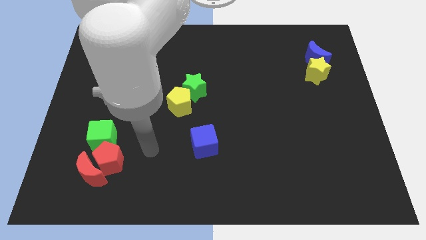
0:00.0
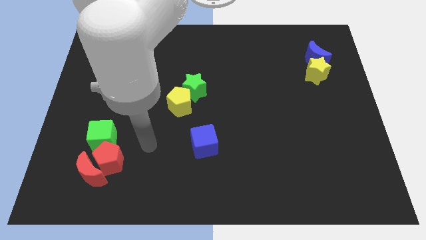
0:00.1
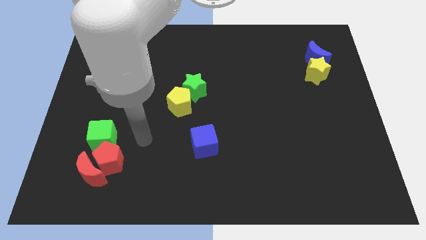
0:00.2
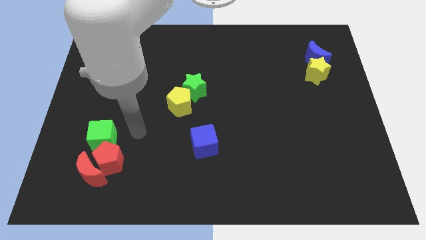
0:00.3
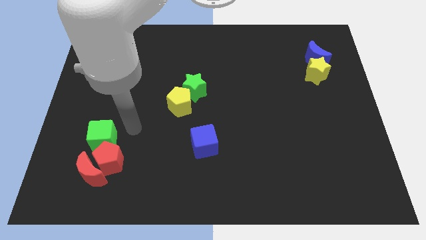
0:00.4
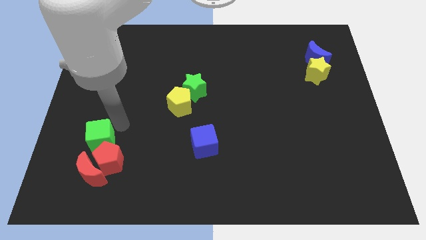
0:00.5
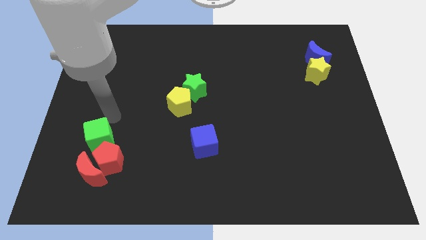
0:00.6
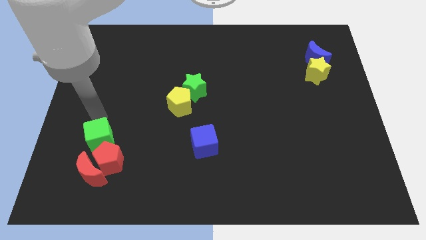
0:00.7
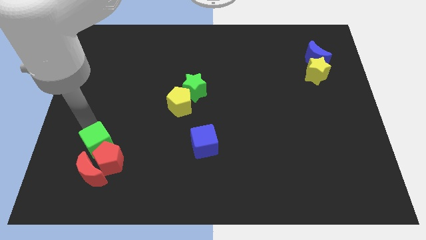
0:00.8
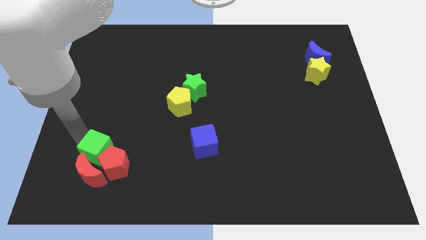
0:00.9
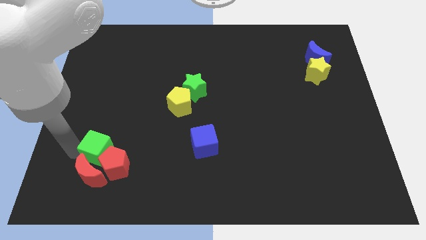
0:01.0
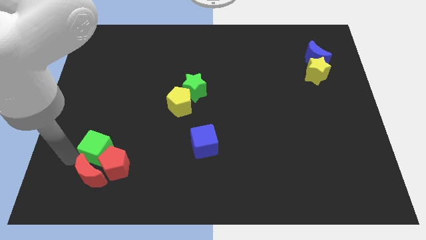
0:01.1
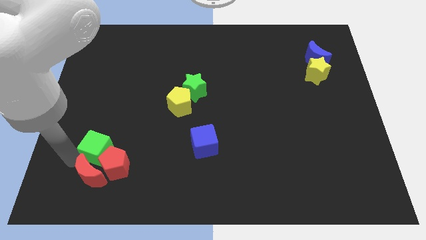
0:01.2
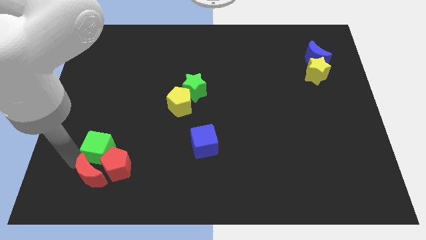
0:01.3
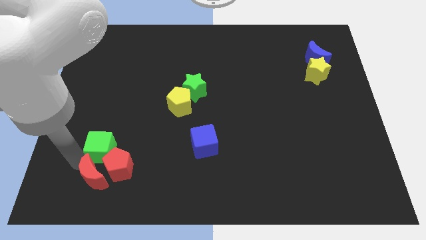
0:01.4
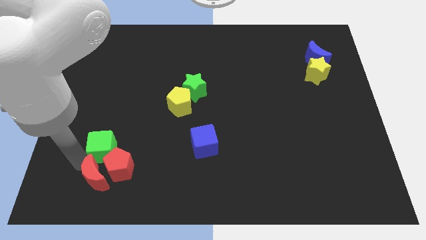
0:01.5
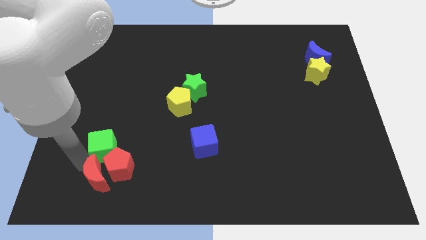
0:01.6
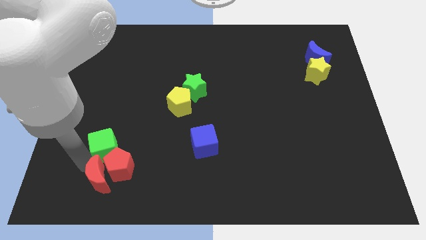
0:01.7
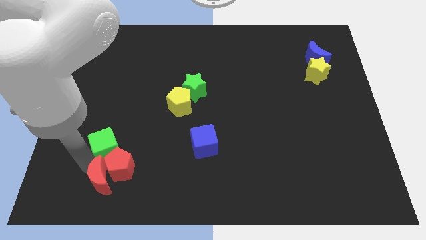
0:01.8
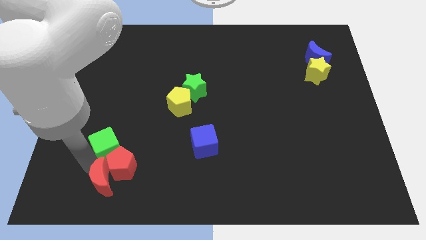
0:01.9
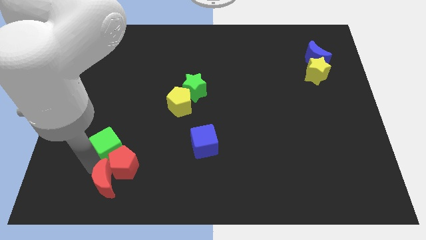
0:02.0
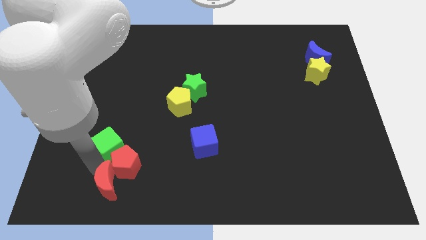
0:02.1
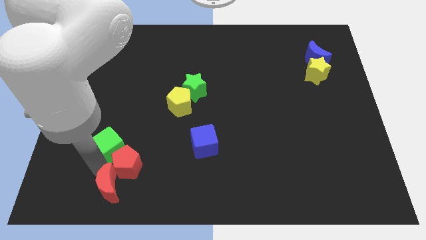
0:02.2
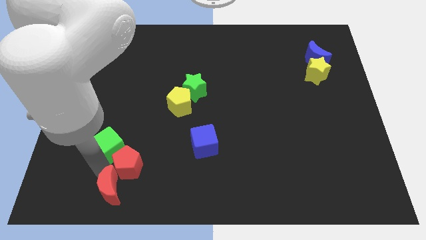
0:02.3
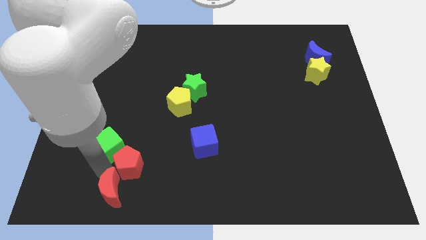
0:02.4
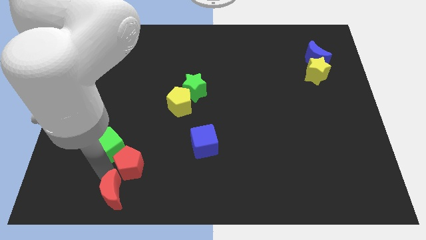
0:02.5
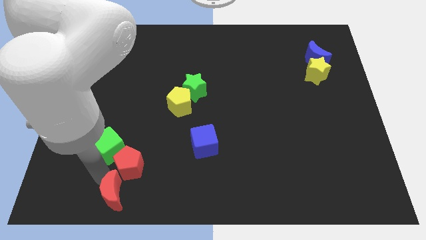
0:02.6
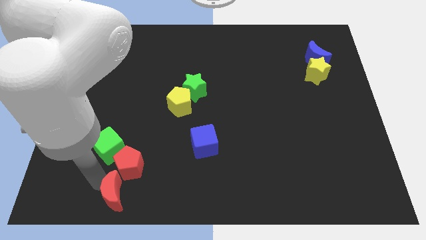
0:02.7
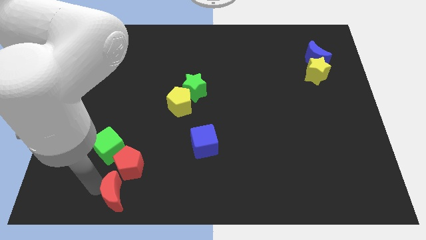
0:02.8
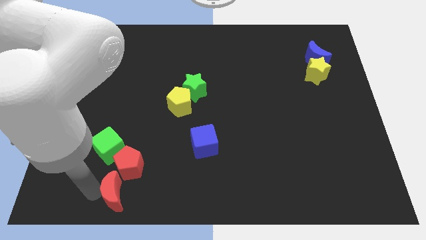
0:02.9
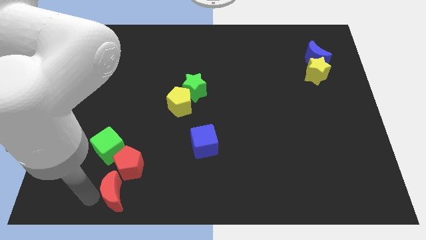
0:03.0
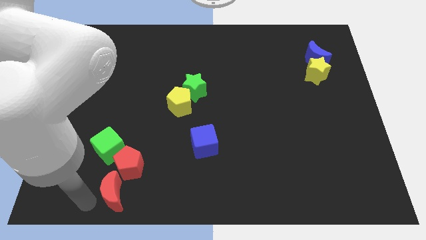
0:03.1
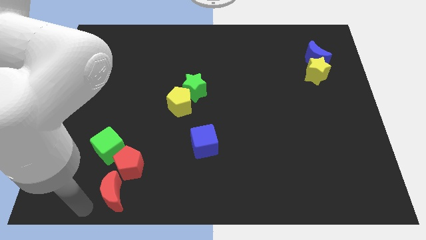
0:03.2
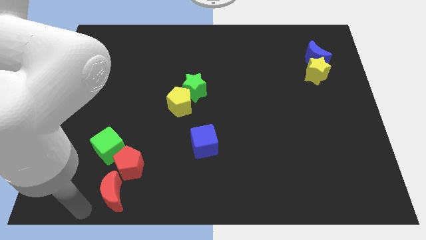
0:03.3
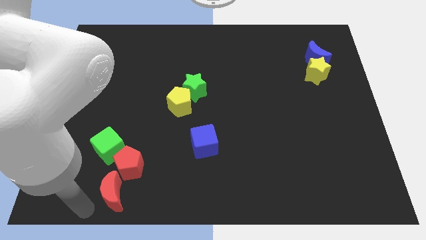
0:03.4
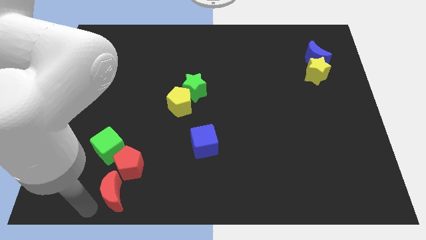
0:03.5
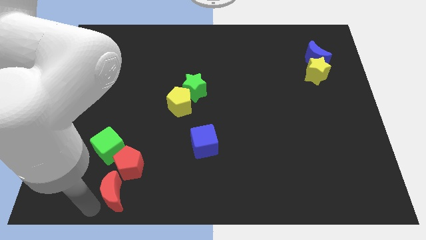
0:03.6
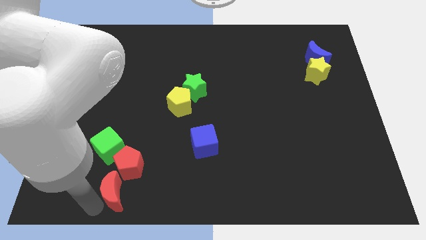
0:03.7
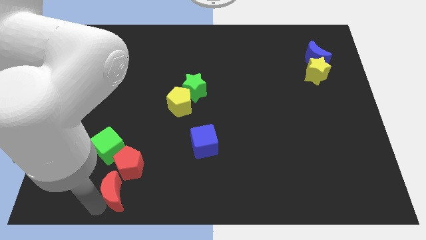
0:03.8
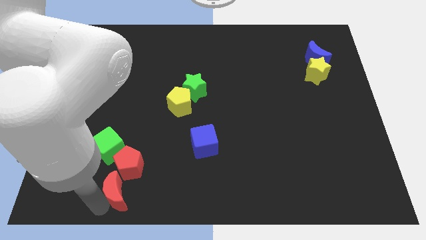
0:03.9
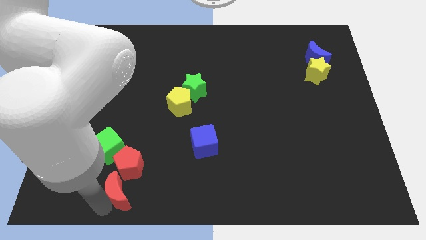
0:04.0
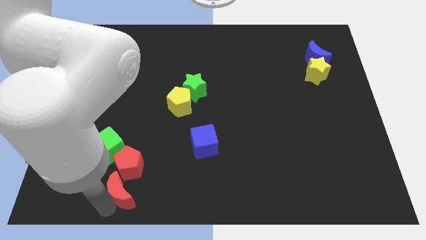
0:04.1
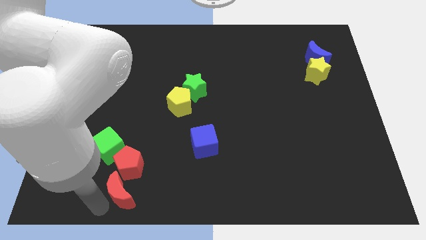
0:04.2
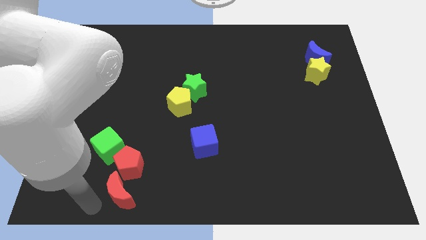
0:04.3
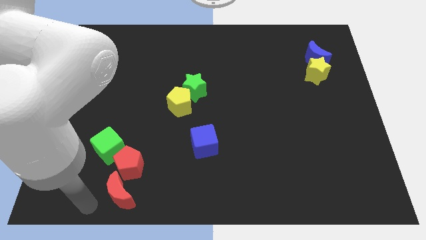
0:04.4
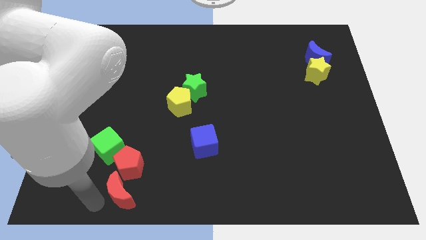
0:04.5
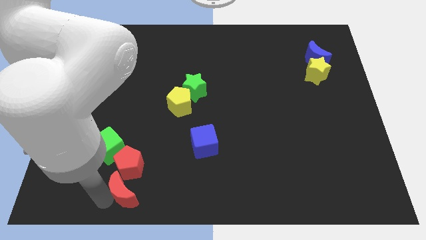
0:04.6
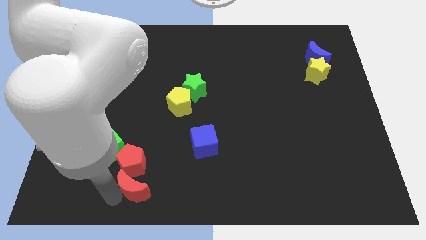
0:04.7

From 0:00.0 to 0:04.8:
slightly slide the red moon right

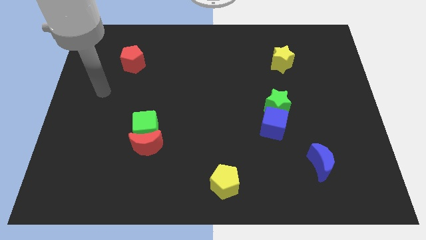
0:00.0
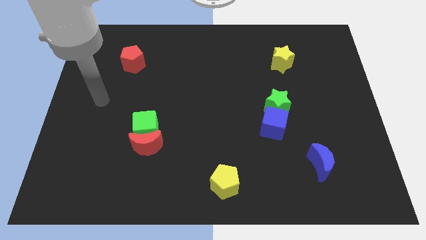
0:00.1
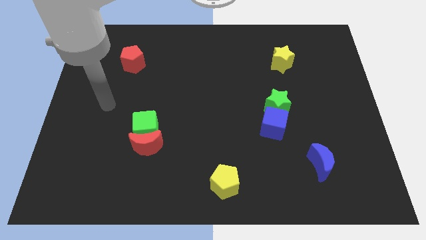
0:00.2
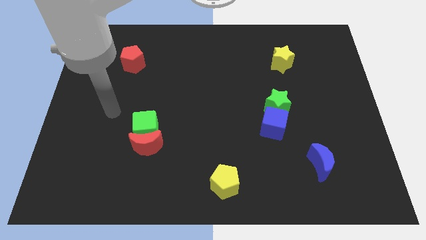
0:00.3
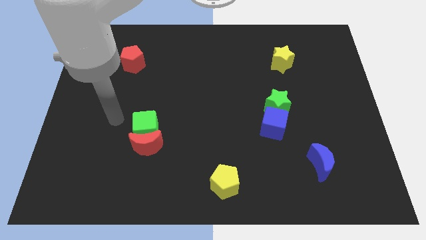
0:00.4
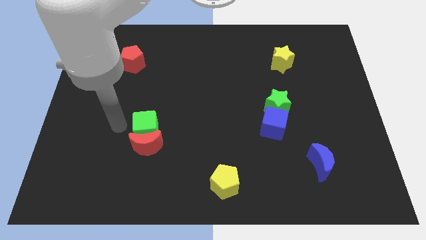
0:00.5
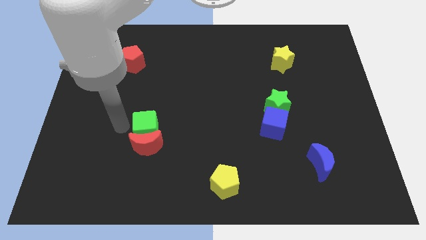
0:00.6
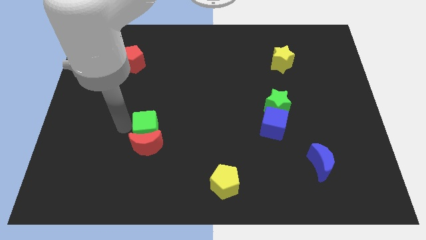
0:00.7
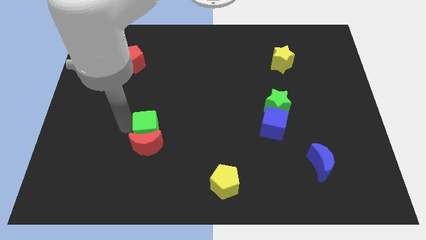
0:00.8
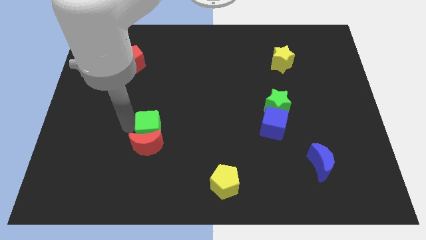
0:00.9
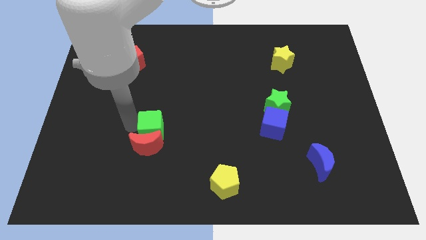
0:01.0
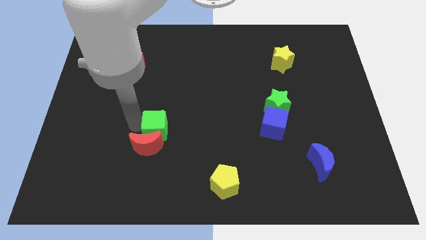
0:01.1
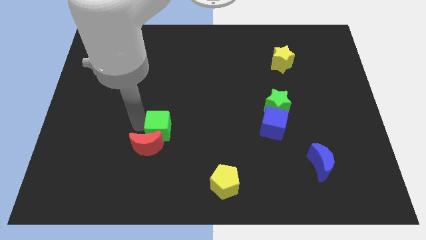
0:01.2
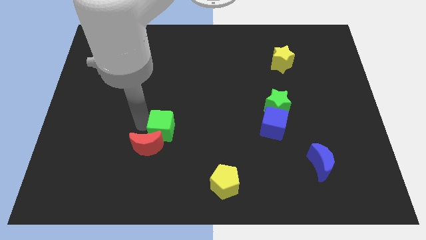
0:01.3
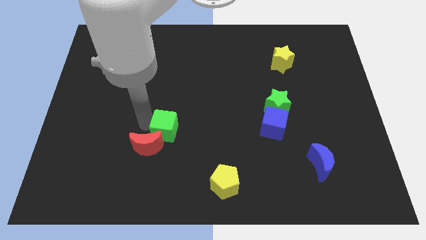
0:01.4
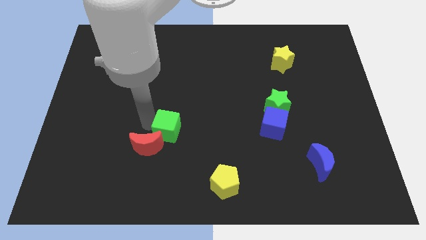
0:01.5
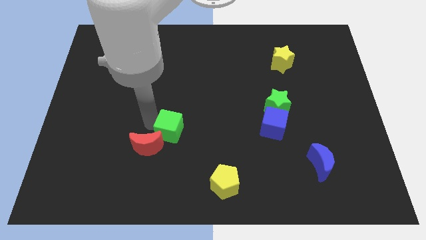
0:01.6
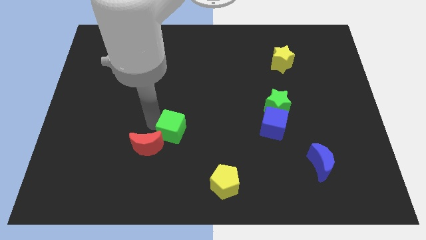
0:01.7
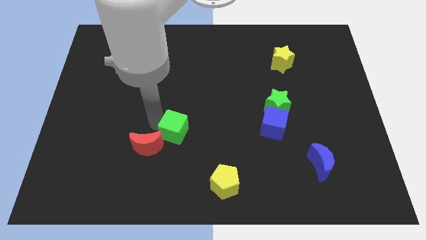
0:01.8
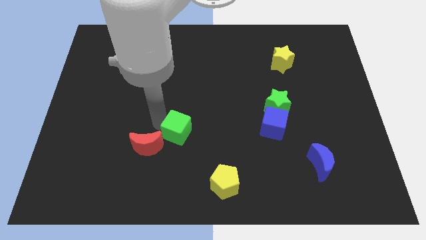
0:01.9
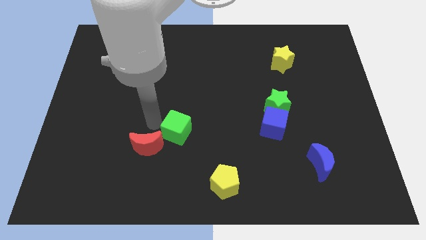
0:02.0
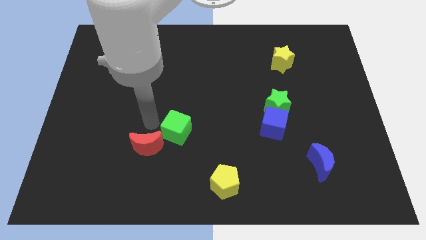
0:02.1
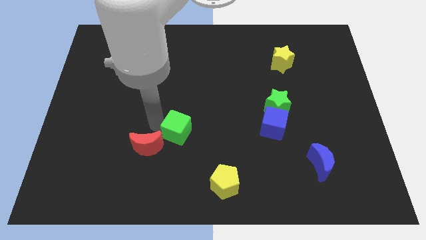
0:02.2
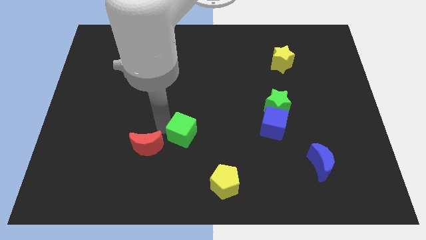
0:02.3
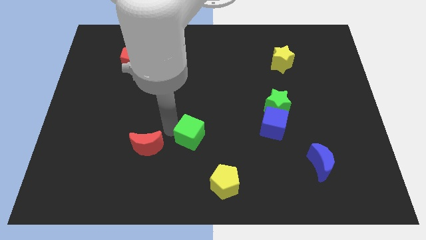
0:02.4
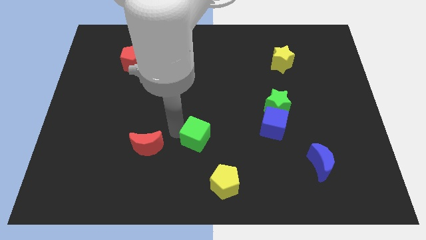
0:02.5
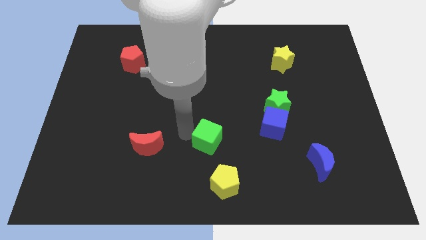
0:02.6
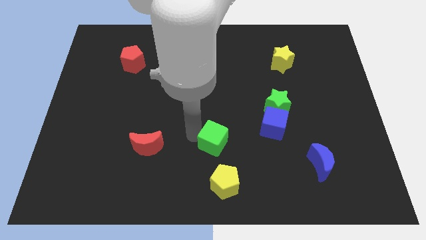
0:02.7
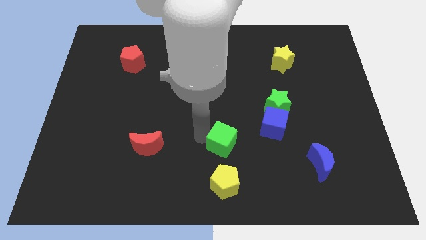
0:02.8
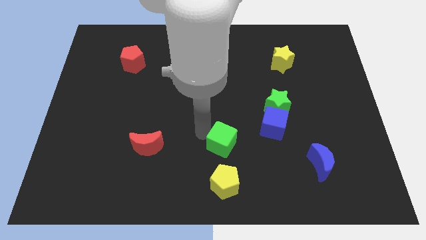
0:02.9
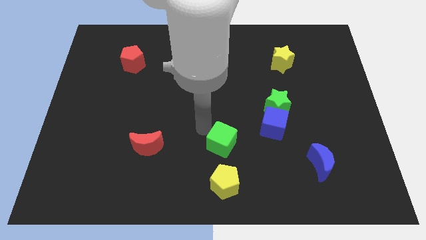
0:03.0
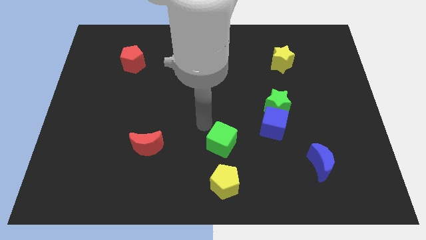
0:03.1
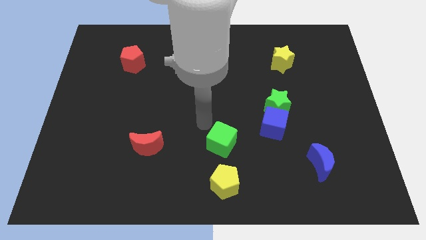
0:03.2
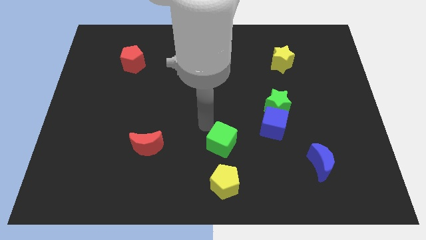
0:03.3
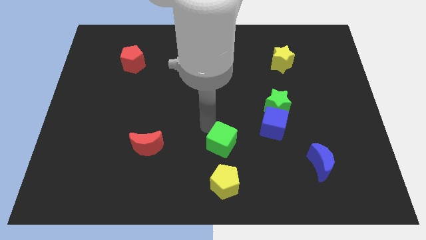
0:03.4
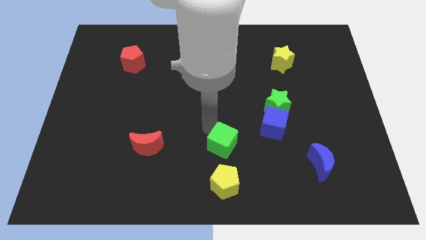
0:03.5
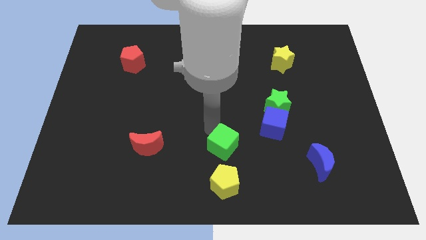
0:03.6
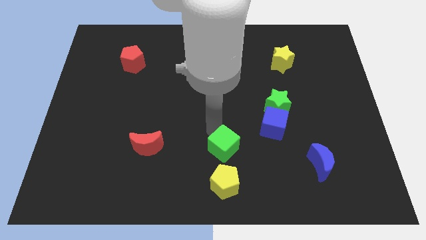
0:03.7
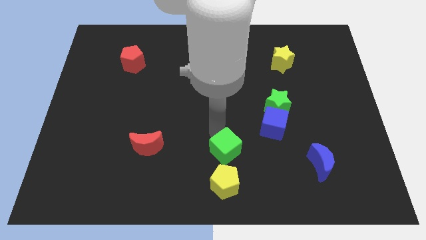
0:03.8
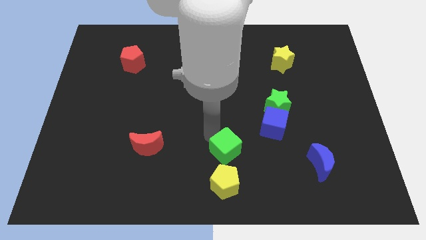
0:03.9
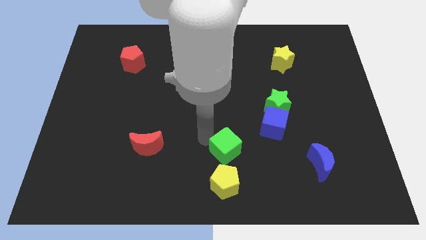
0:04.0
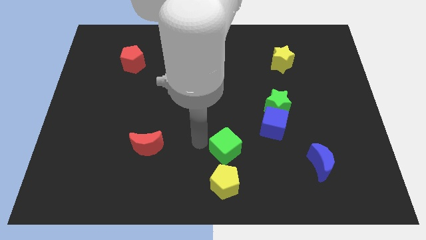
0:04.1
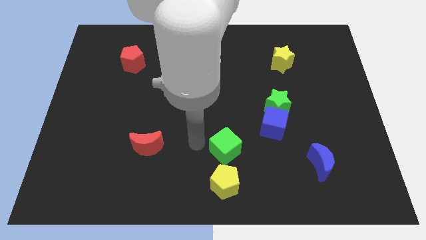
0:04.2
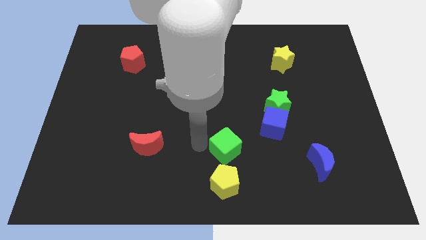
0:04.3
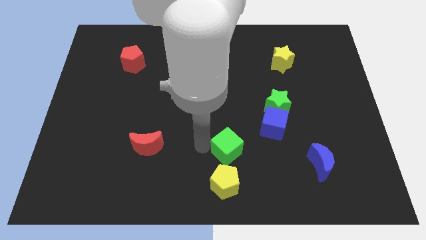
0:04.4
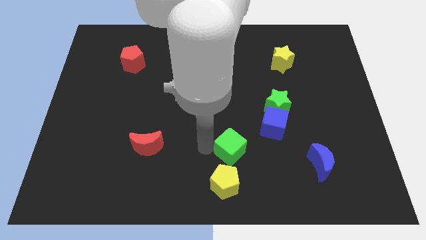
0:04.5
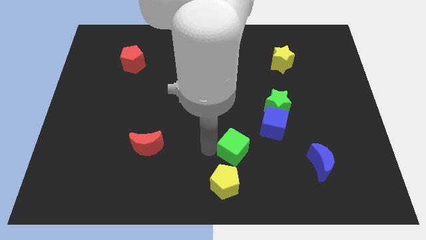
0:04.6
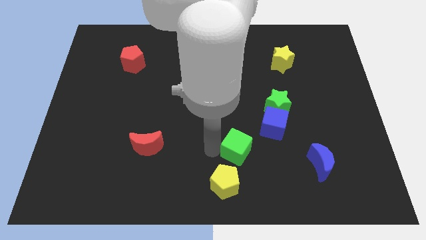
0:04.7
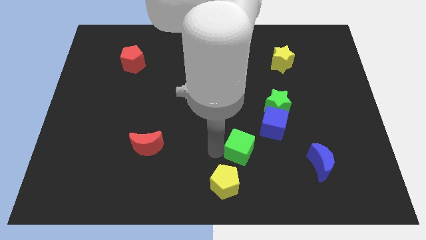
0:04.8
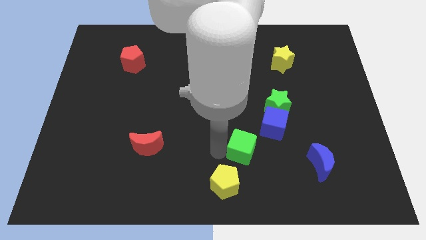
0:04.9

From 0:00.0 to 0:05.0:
move the green cube right
